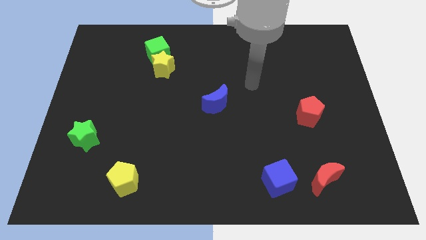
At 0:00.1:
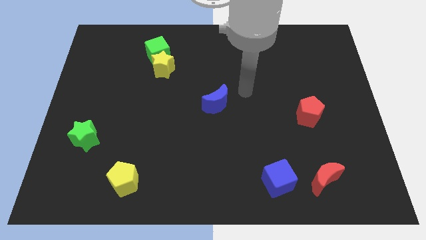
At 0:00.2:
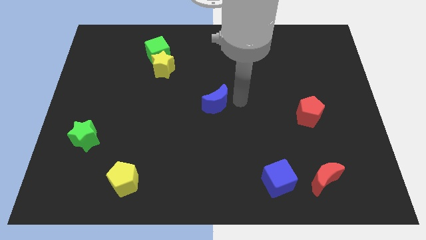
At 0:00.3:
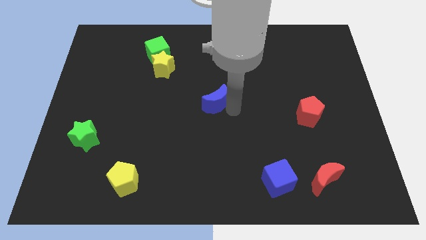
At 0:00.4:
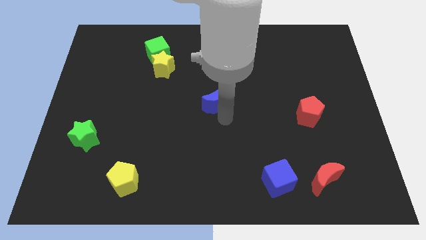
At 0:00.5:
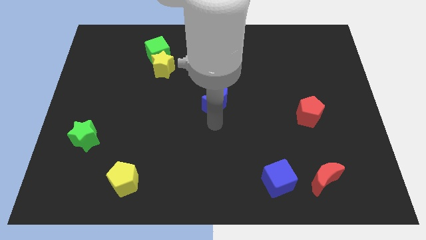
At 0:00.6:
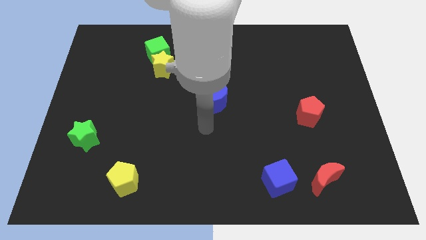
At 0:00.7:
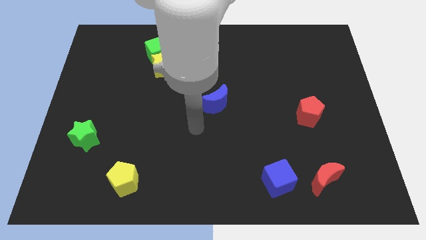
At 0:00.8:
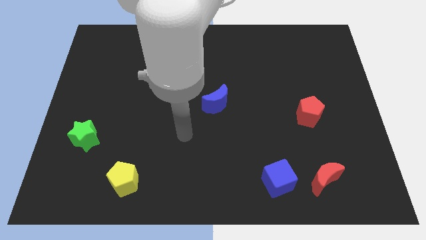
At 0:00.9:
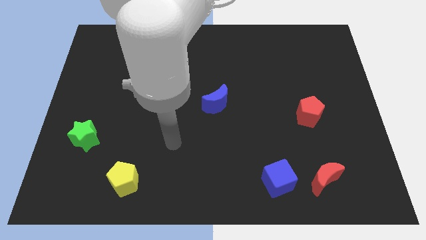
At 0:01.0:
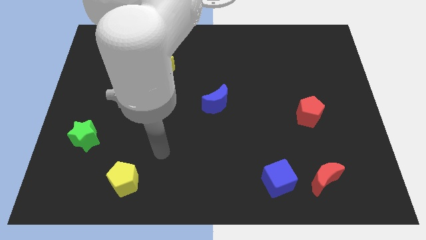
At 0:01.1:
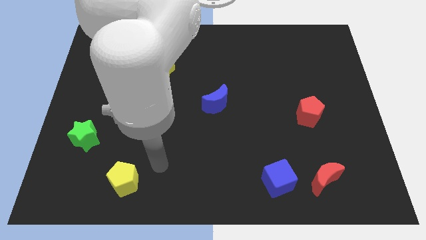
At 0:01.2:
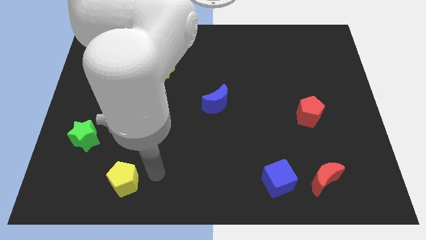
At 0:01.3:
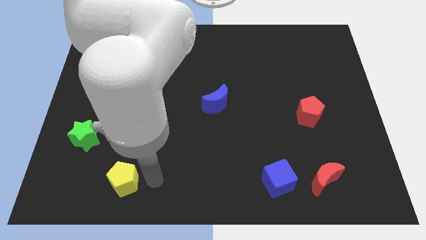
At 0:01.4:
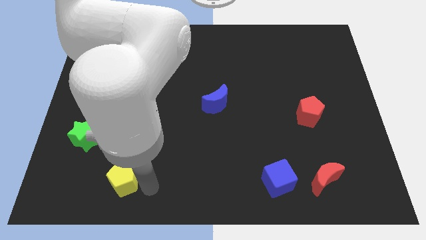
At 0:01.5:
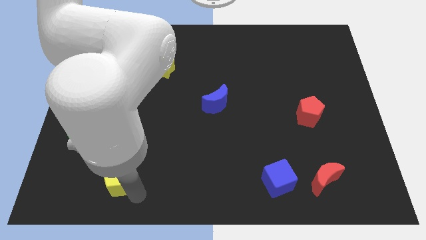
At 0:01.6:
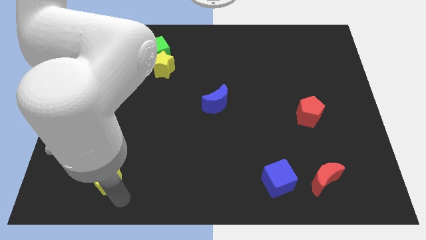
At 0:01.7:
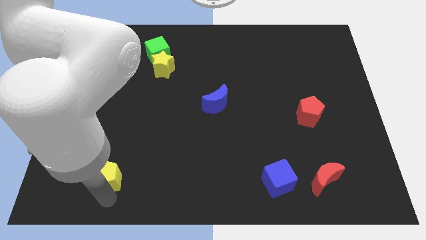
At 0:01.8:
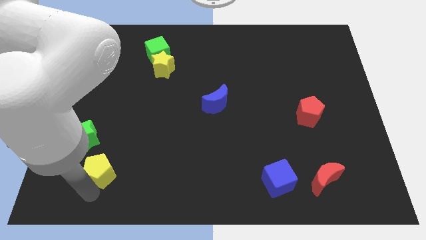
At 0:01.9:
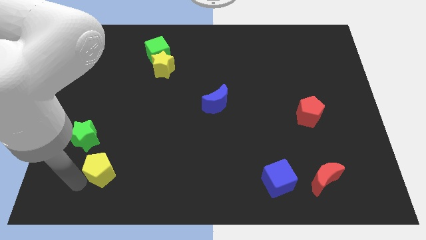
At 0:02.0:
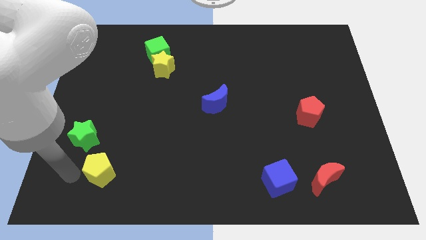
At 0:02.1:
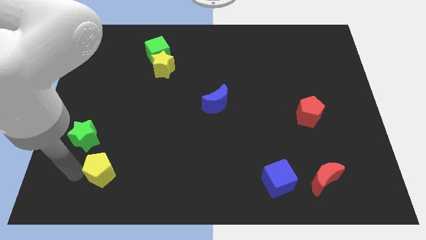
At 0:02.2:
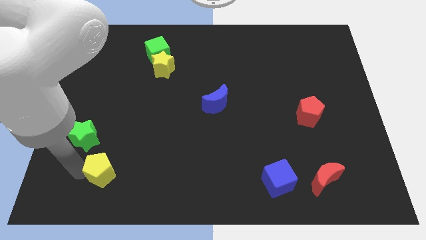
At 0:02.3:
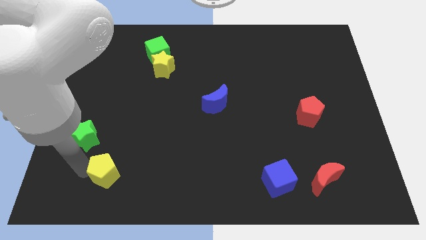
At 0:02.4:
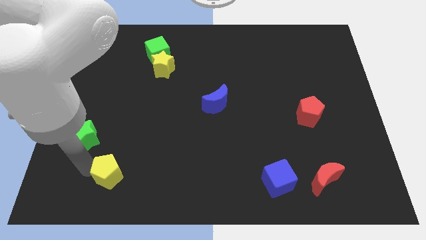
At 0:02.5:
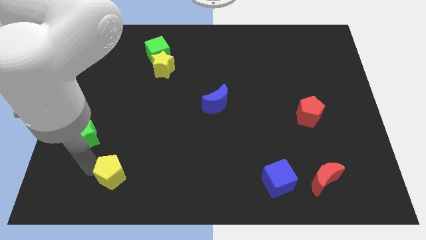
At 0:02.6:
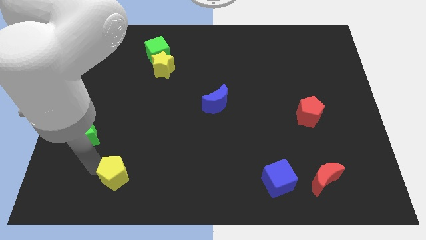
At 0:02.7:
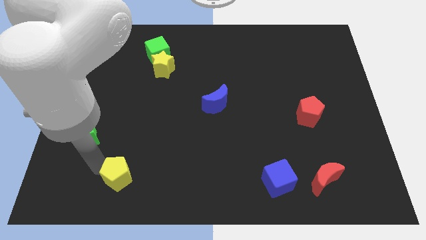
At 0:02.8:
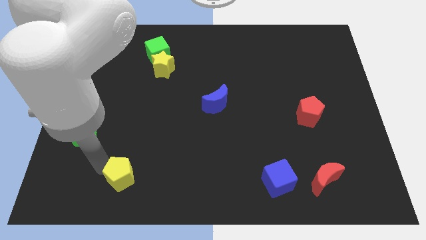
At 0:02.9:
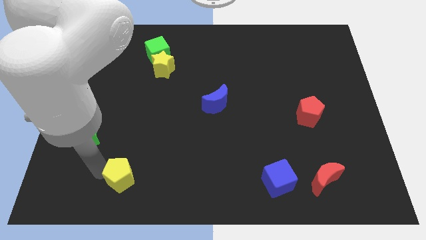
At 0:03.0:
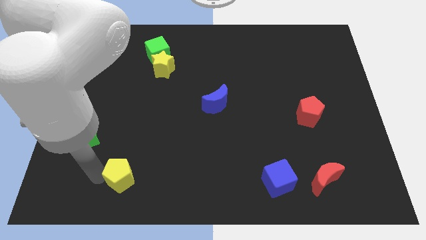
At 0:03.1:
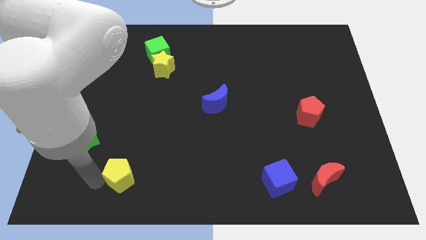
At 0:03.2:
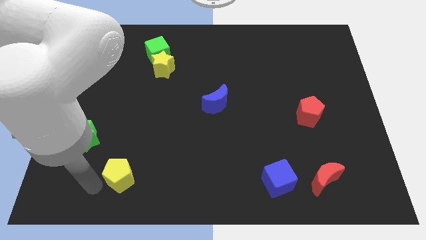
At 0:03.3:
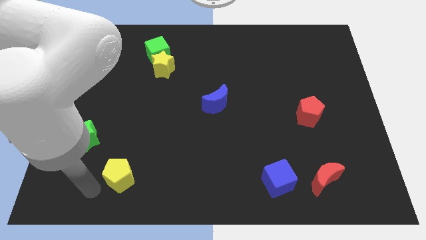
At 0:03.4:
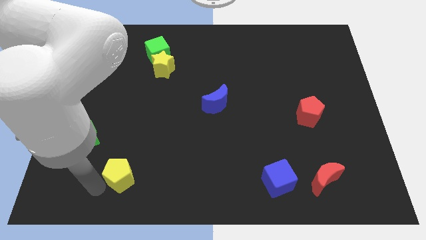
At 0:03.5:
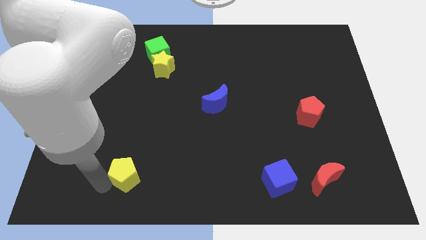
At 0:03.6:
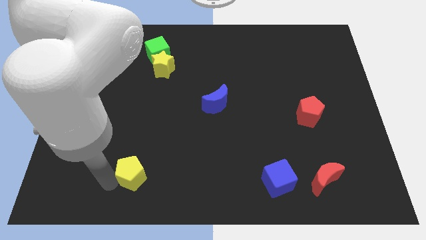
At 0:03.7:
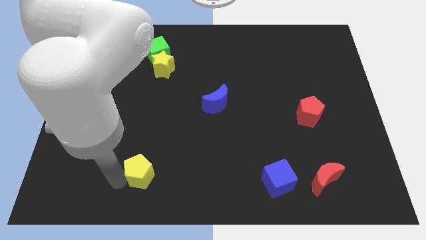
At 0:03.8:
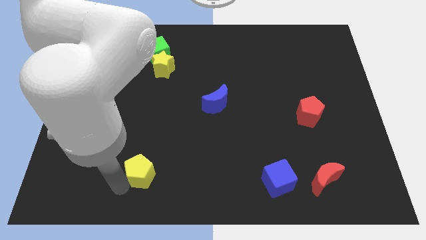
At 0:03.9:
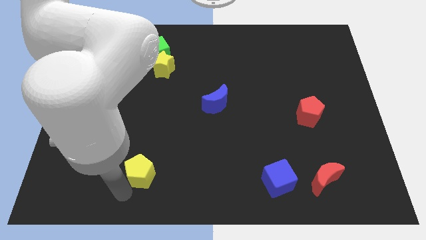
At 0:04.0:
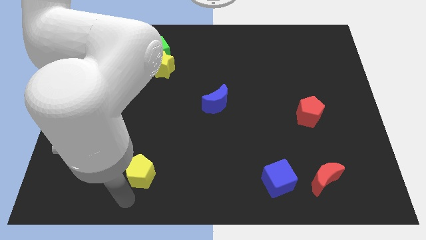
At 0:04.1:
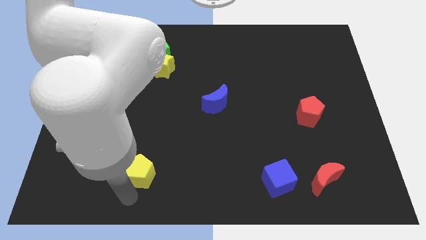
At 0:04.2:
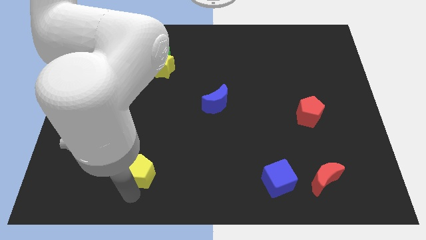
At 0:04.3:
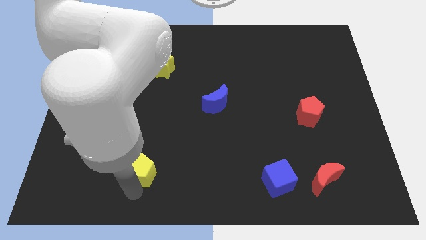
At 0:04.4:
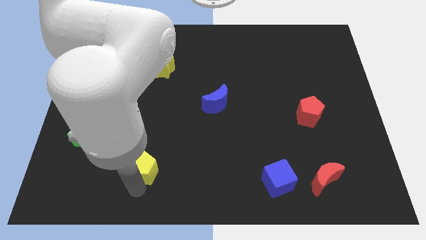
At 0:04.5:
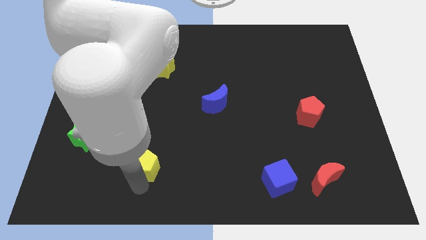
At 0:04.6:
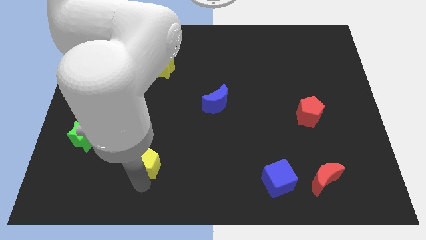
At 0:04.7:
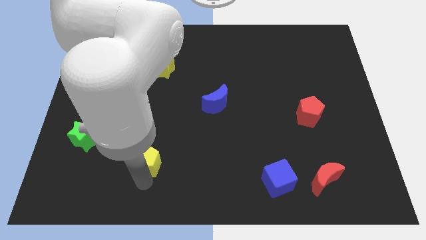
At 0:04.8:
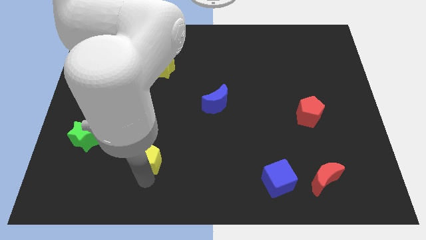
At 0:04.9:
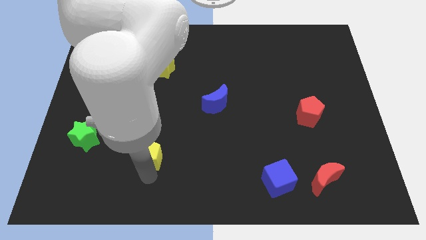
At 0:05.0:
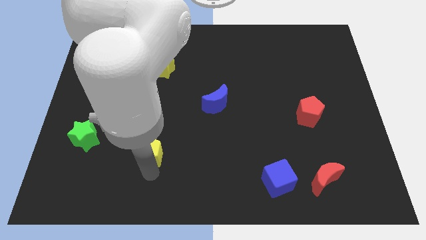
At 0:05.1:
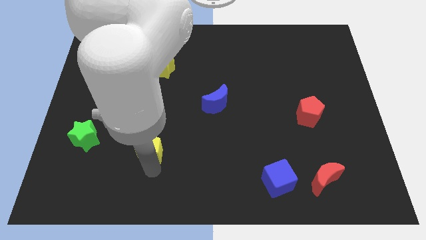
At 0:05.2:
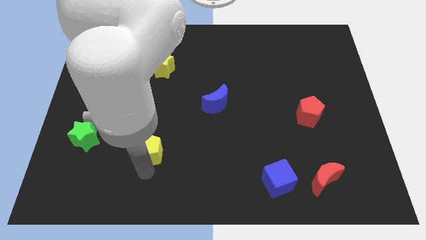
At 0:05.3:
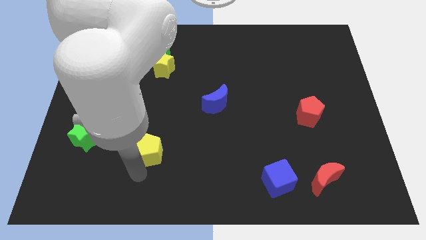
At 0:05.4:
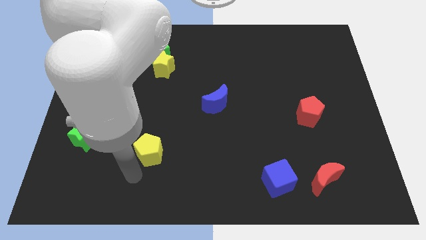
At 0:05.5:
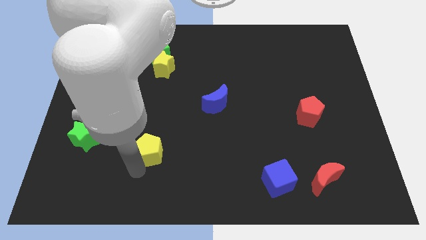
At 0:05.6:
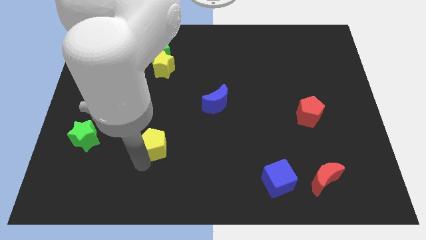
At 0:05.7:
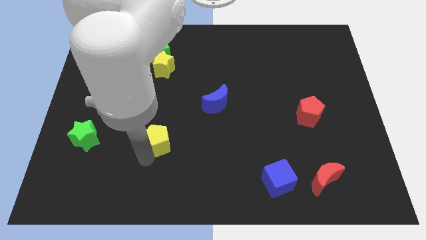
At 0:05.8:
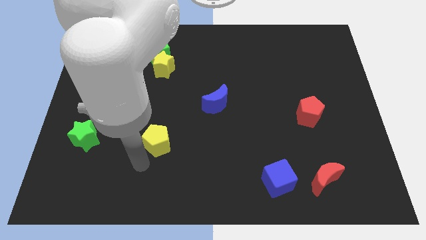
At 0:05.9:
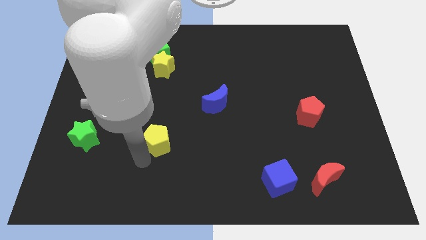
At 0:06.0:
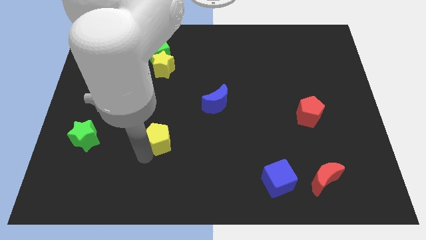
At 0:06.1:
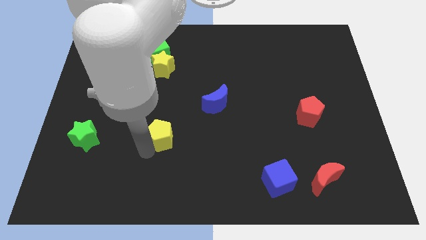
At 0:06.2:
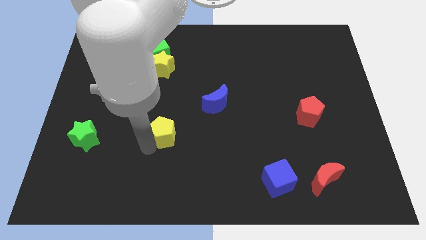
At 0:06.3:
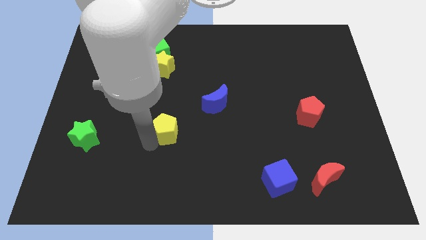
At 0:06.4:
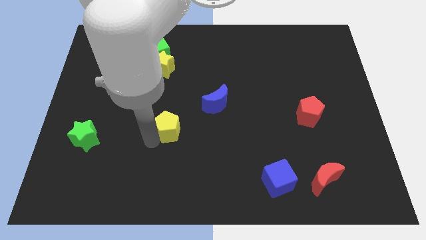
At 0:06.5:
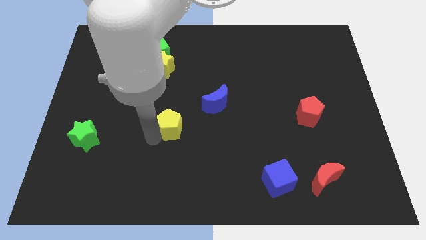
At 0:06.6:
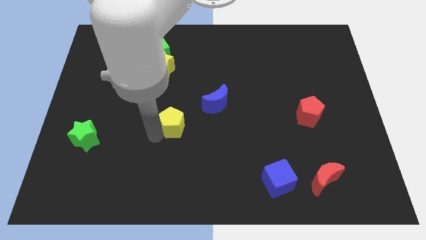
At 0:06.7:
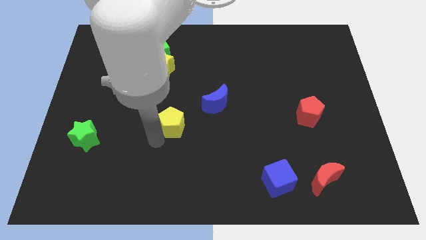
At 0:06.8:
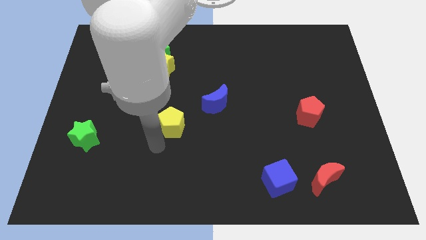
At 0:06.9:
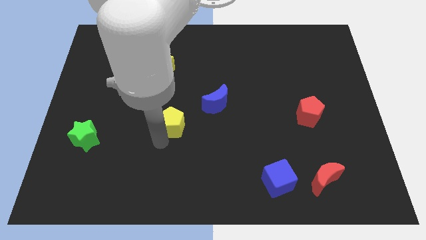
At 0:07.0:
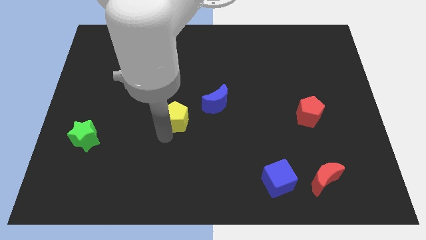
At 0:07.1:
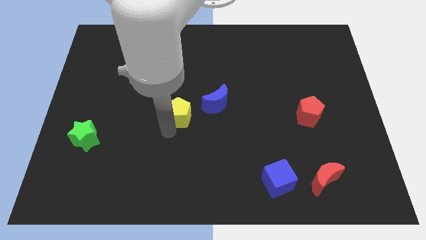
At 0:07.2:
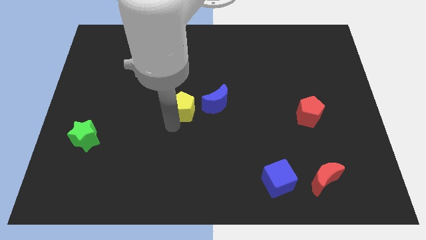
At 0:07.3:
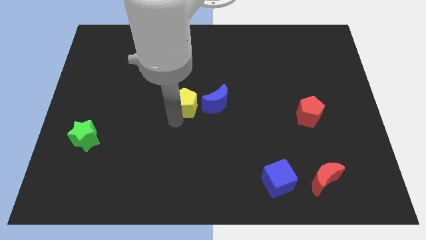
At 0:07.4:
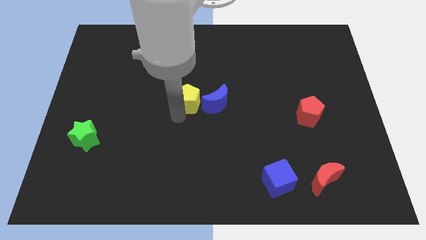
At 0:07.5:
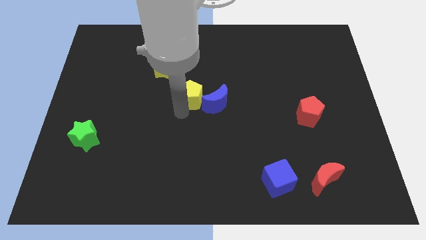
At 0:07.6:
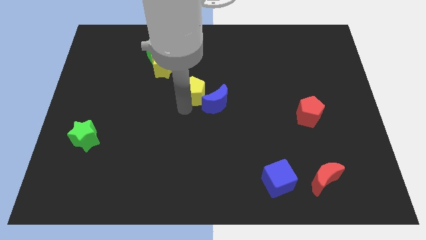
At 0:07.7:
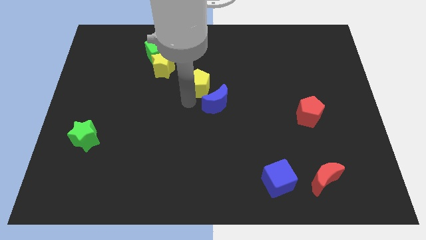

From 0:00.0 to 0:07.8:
push the yellow pentagon above the blue moon
